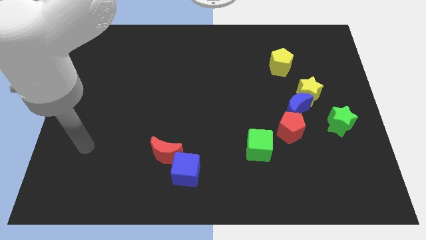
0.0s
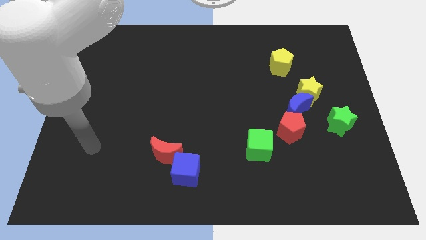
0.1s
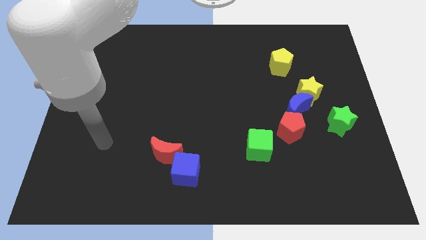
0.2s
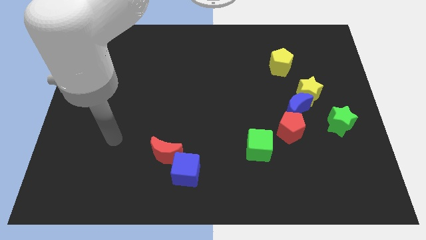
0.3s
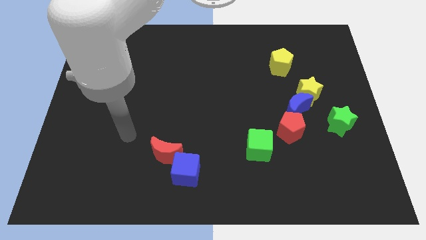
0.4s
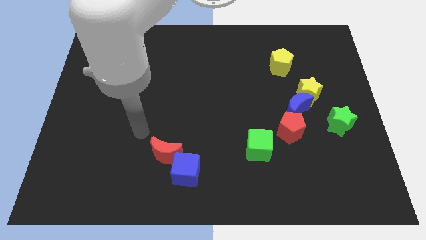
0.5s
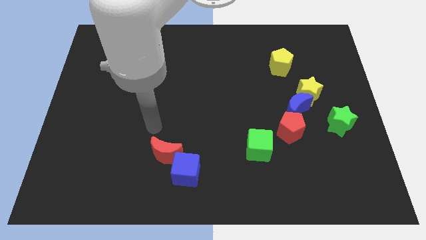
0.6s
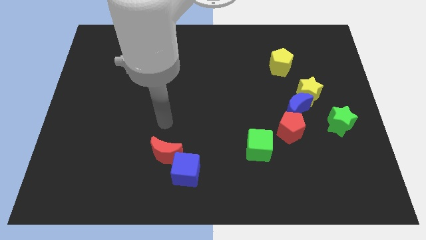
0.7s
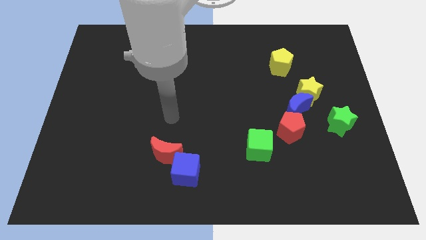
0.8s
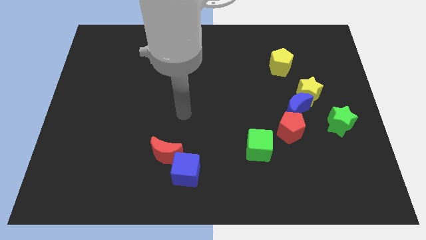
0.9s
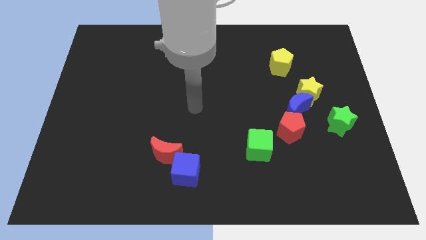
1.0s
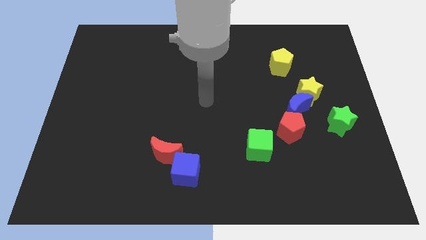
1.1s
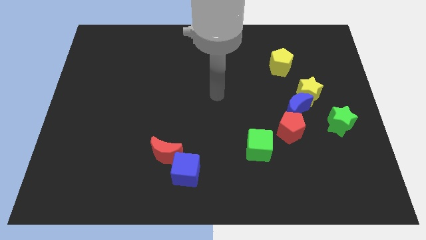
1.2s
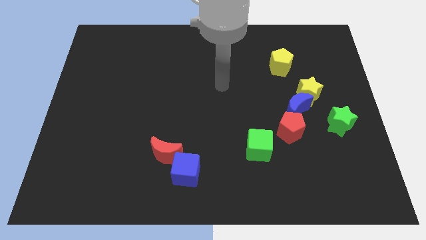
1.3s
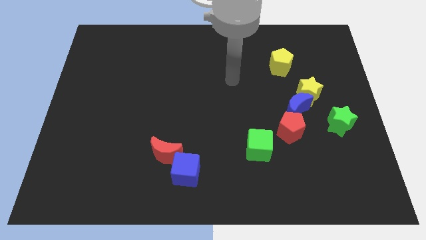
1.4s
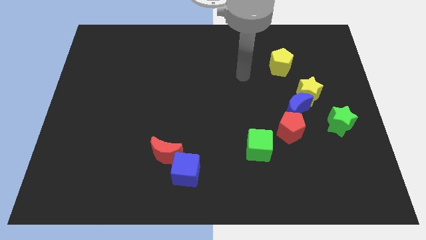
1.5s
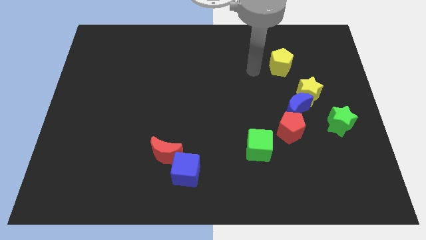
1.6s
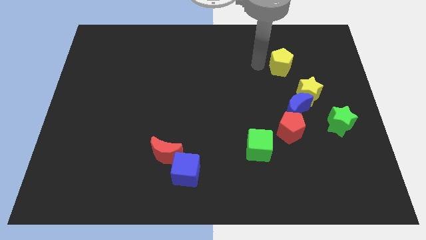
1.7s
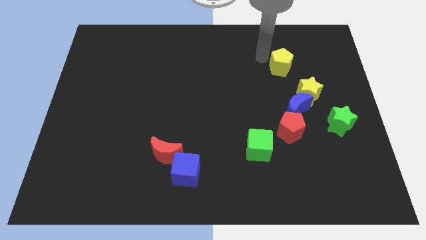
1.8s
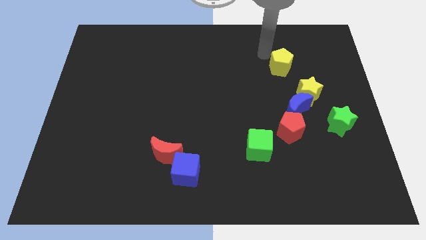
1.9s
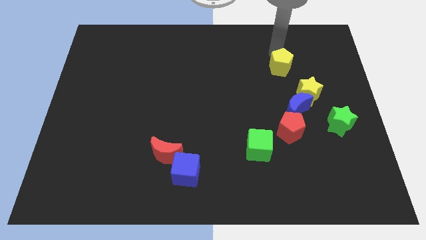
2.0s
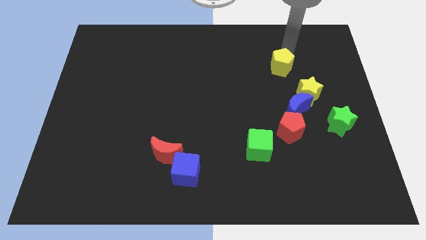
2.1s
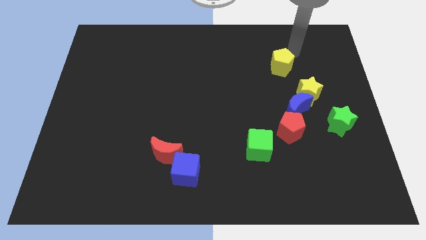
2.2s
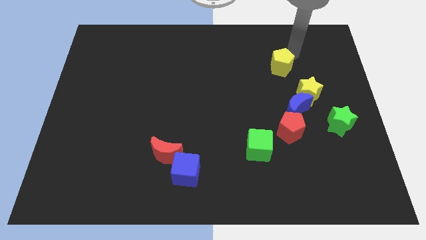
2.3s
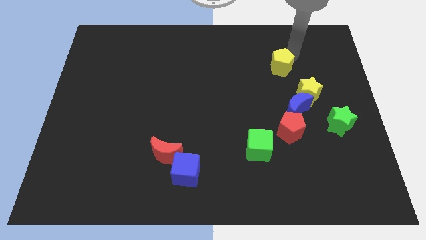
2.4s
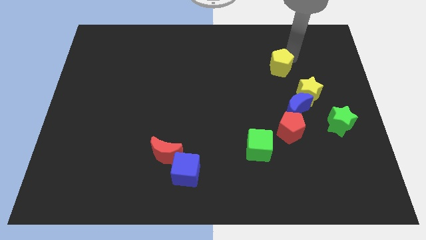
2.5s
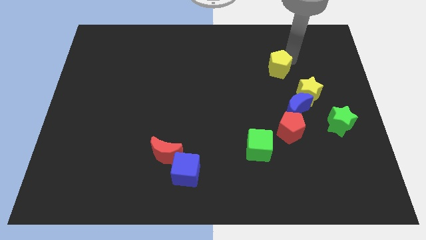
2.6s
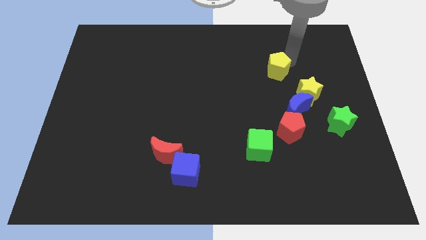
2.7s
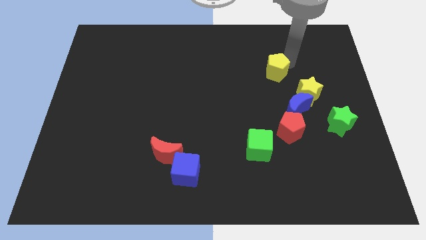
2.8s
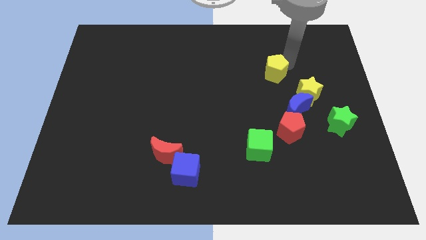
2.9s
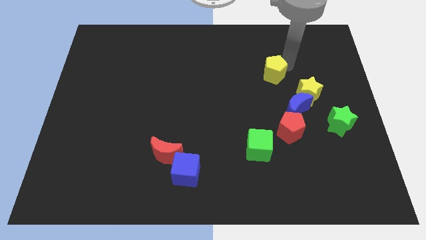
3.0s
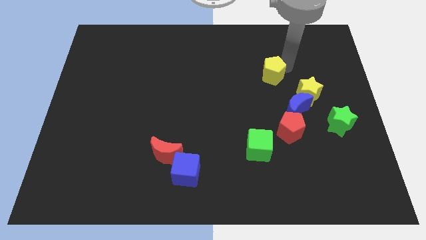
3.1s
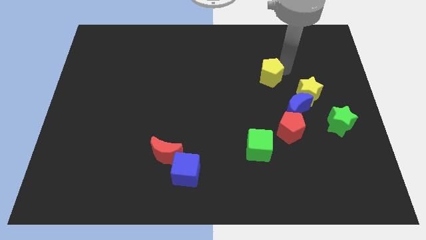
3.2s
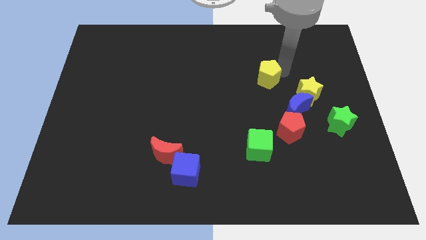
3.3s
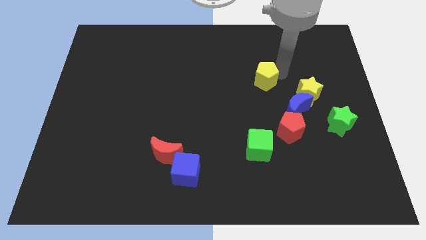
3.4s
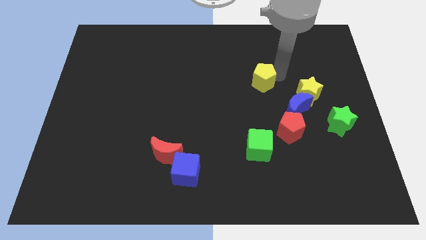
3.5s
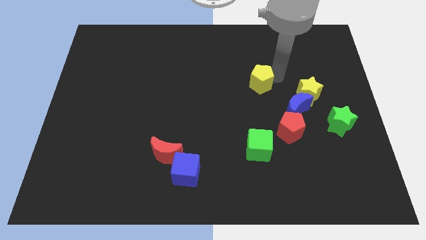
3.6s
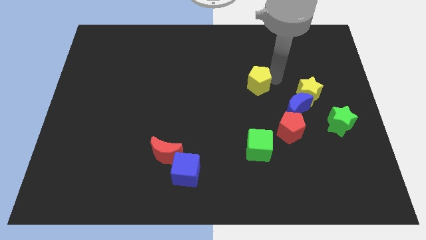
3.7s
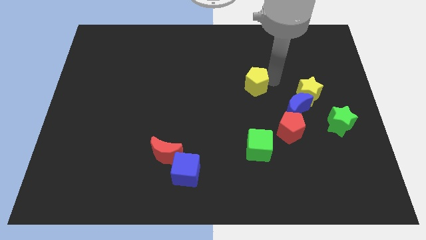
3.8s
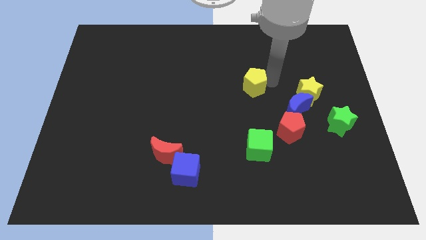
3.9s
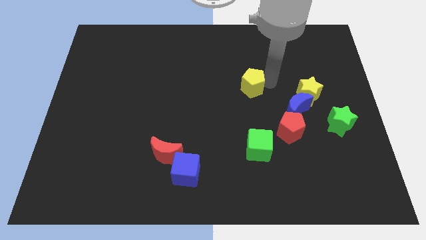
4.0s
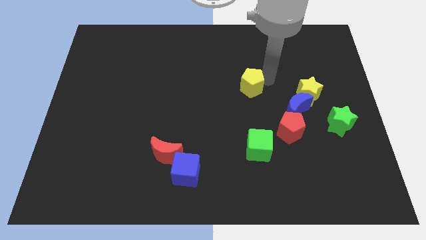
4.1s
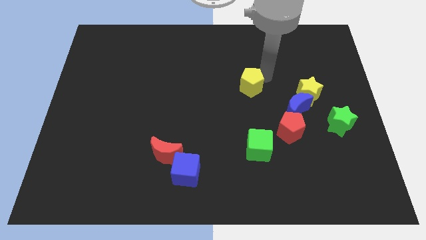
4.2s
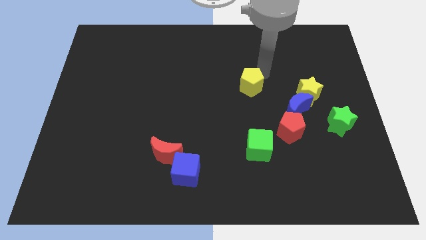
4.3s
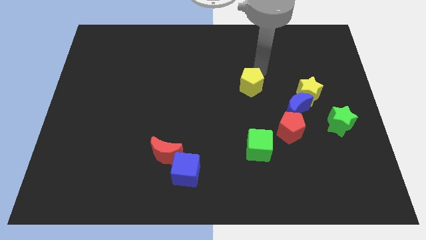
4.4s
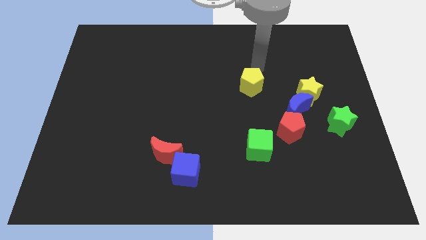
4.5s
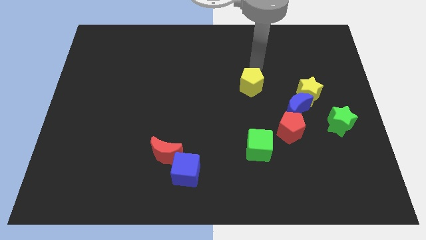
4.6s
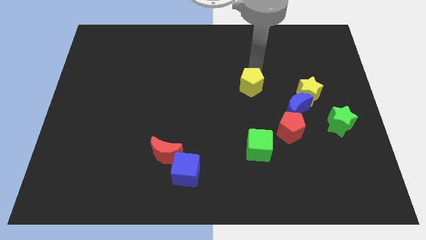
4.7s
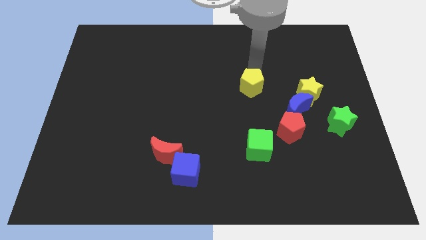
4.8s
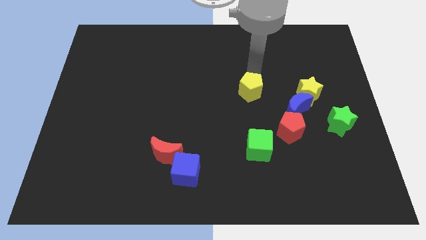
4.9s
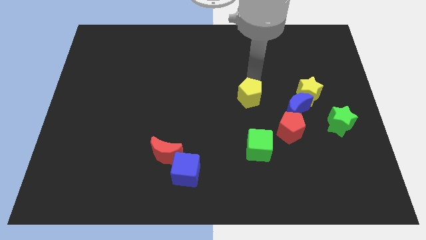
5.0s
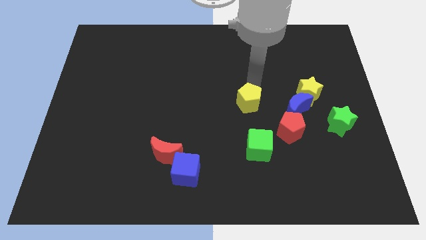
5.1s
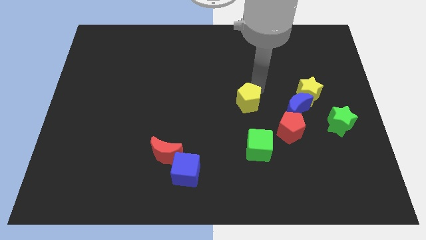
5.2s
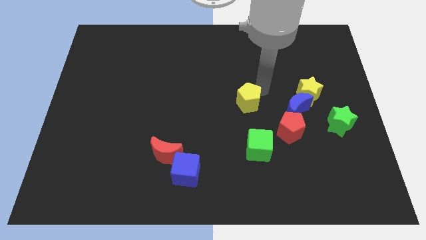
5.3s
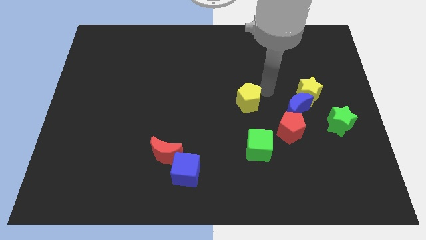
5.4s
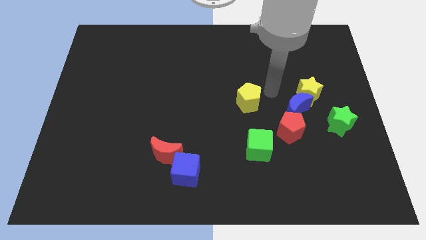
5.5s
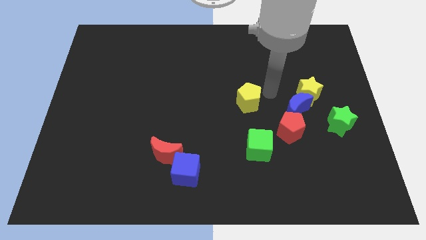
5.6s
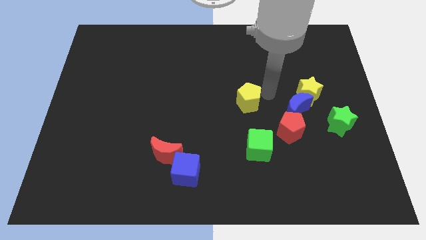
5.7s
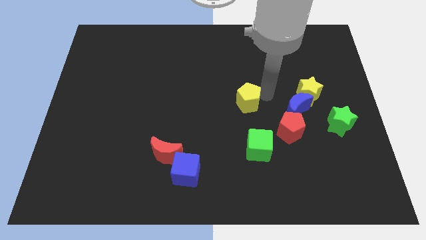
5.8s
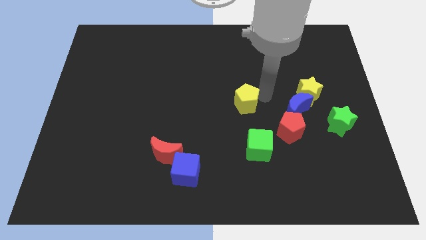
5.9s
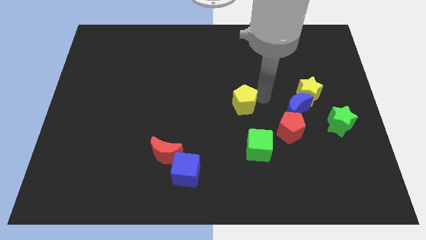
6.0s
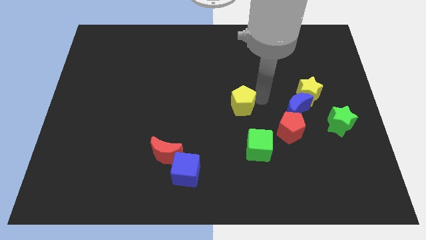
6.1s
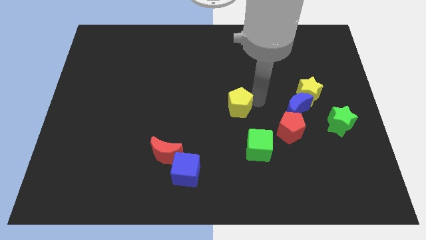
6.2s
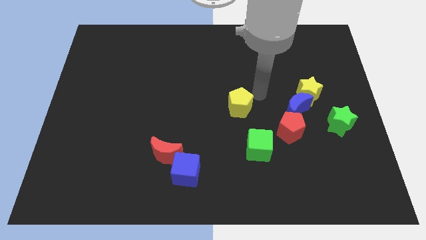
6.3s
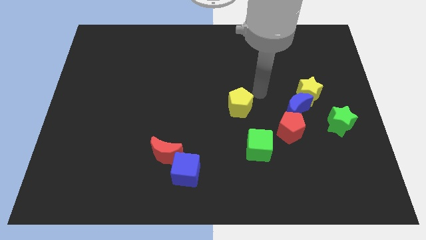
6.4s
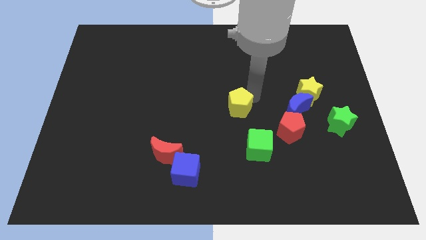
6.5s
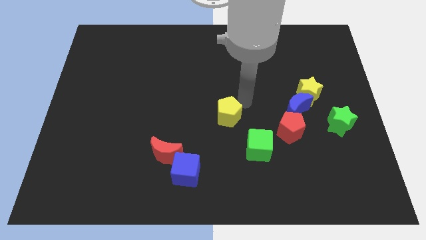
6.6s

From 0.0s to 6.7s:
move the yellow pentagon downwards and left

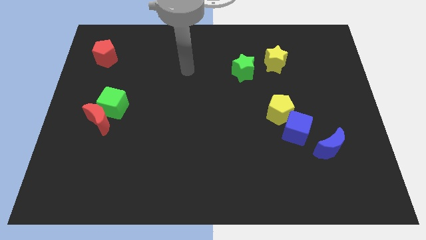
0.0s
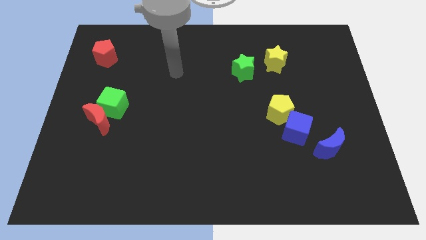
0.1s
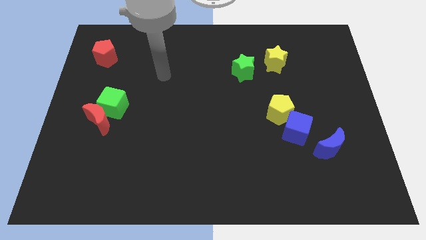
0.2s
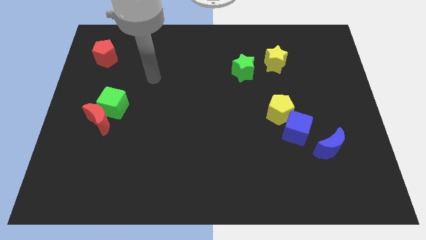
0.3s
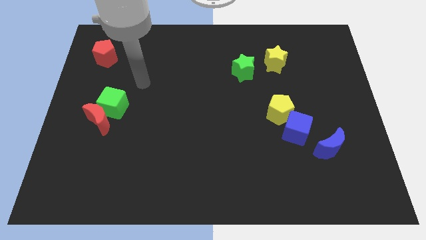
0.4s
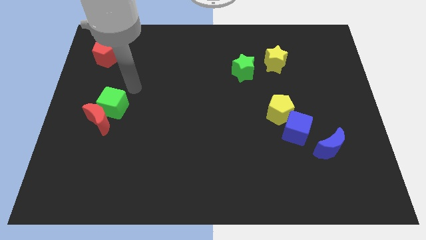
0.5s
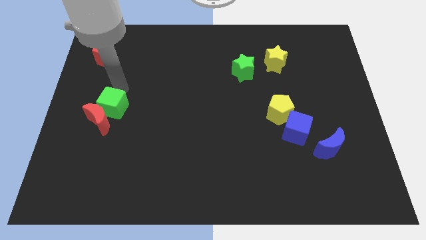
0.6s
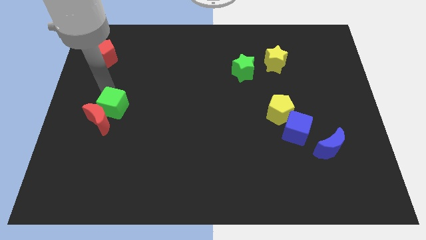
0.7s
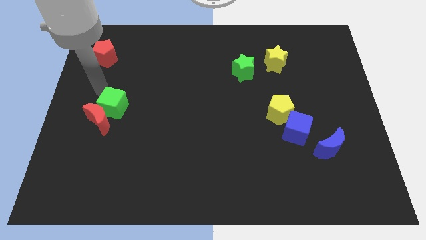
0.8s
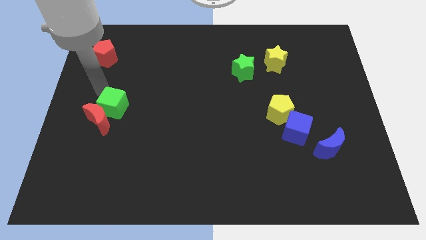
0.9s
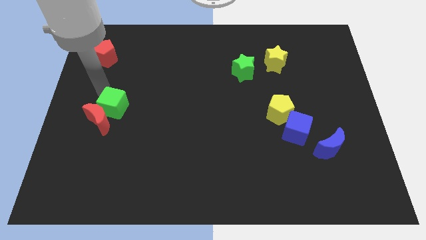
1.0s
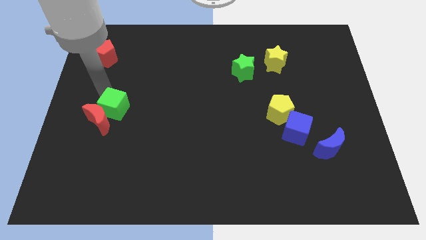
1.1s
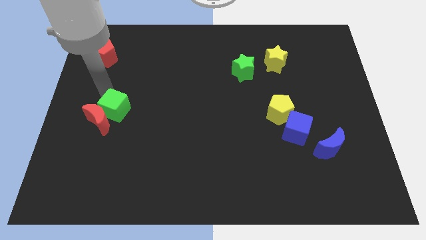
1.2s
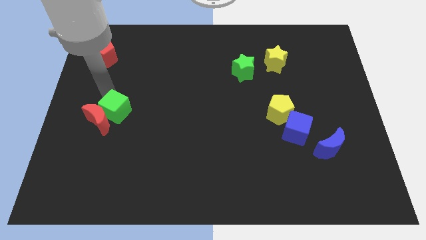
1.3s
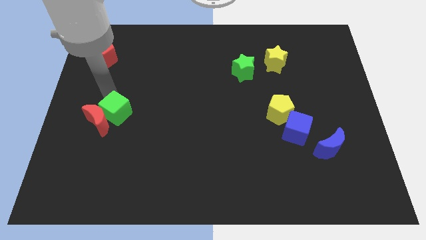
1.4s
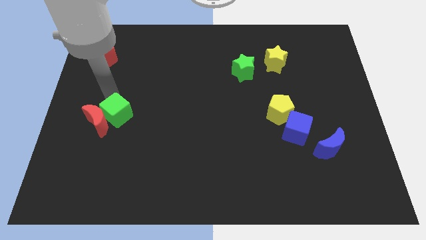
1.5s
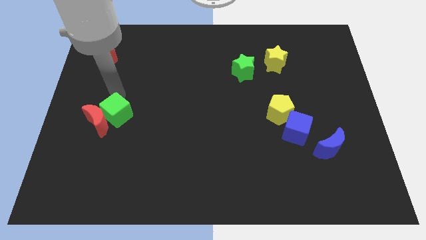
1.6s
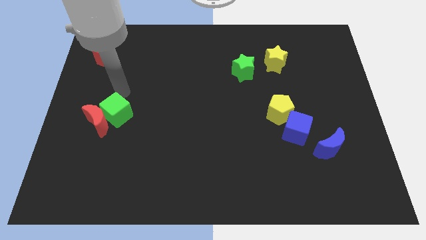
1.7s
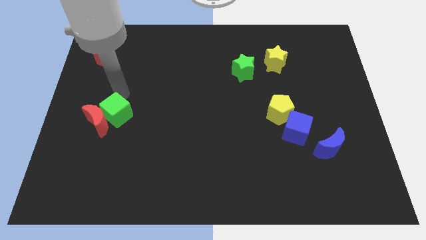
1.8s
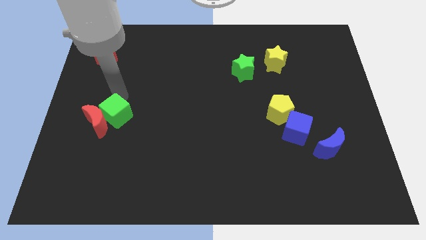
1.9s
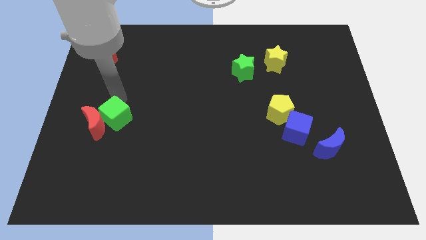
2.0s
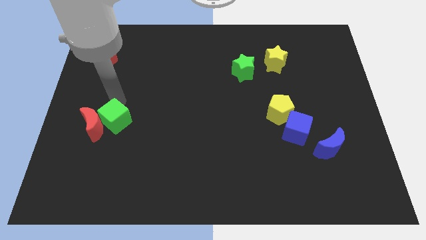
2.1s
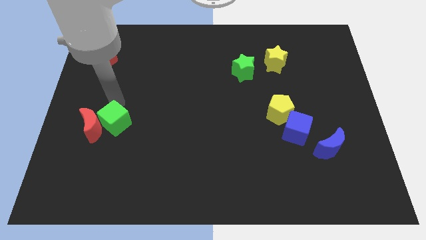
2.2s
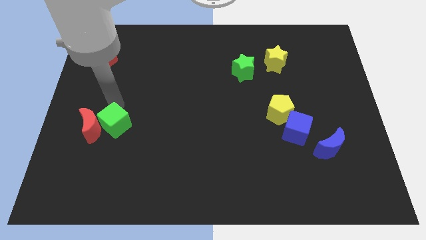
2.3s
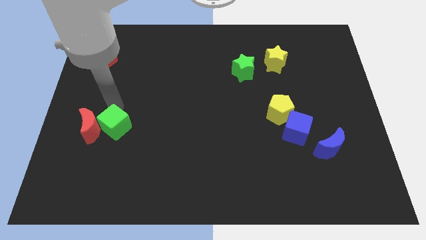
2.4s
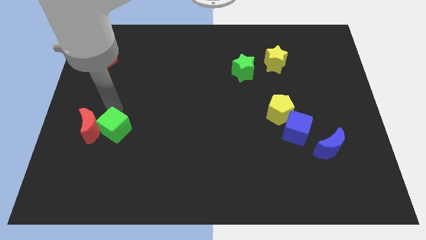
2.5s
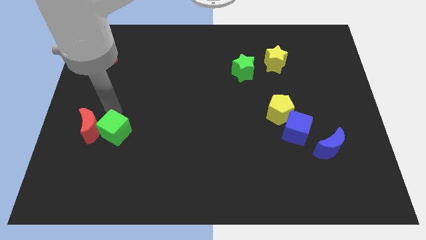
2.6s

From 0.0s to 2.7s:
slightly push the green cube downwards
